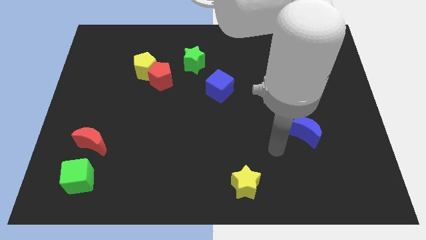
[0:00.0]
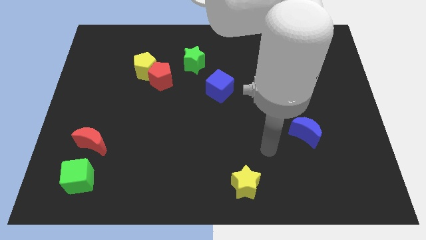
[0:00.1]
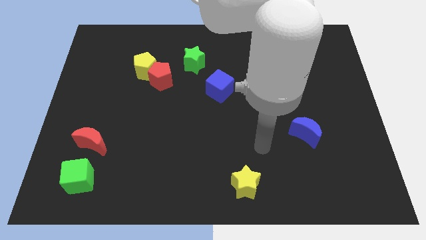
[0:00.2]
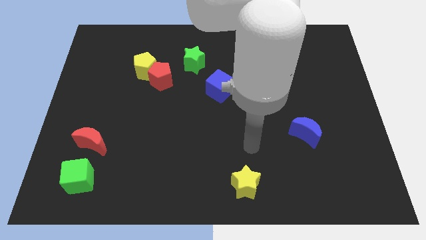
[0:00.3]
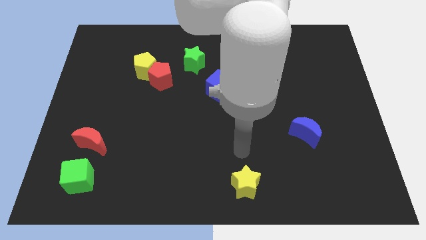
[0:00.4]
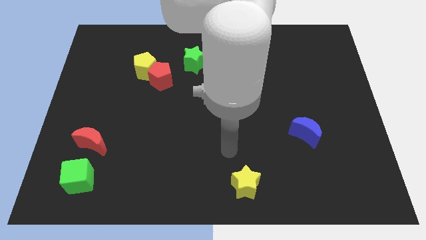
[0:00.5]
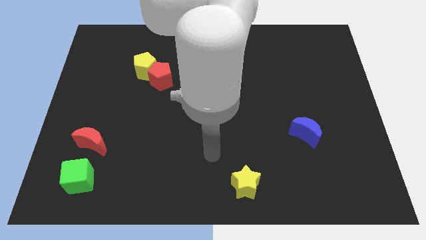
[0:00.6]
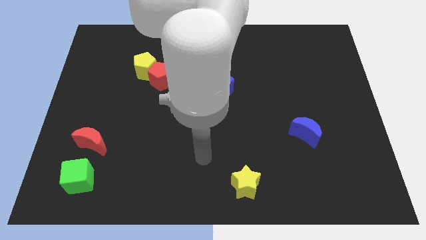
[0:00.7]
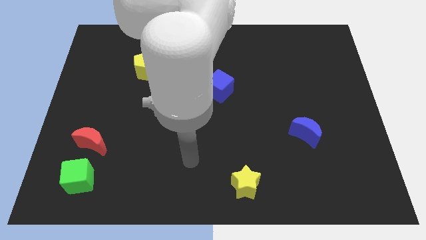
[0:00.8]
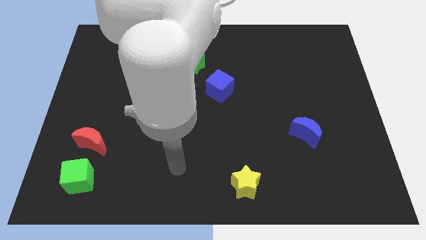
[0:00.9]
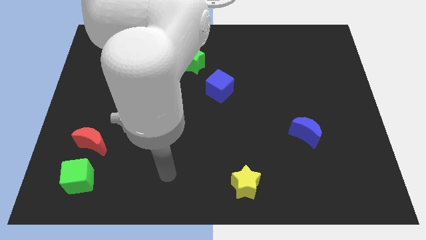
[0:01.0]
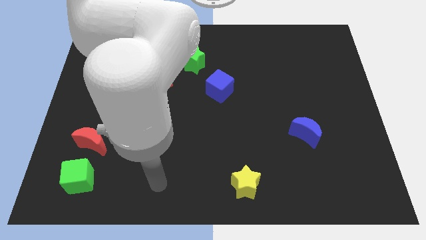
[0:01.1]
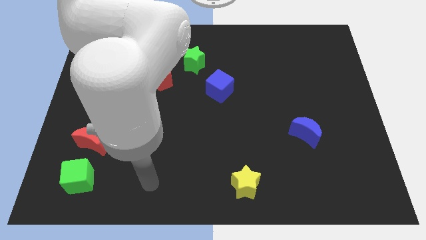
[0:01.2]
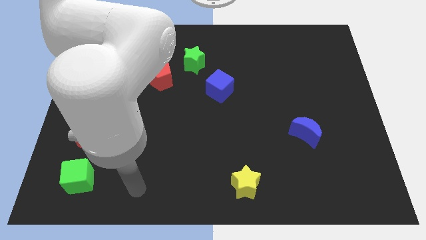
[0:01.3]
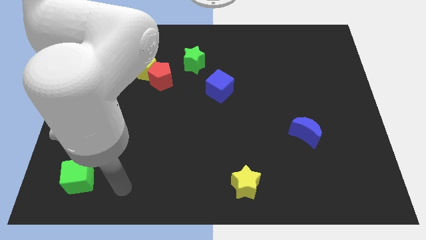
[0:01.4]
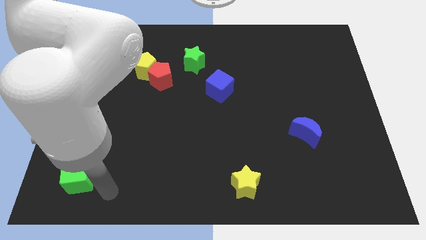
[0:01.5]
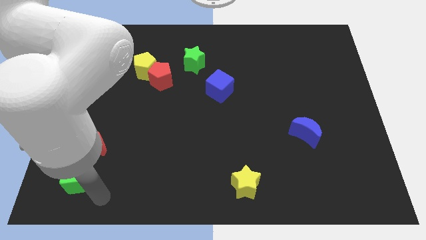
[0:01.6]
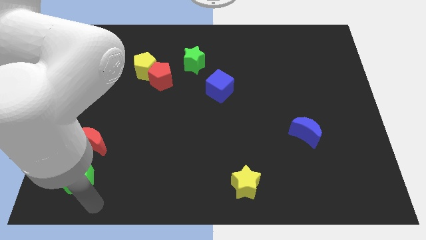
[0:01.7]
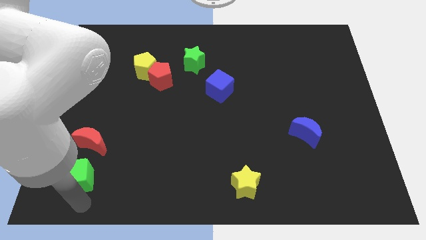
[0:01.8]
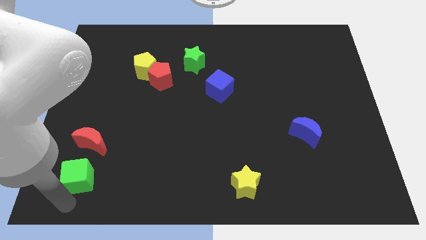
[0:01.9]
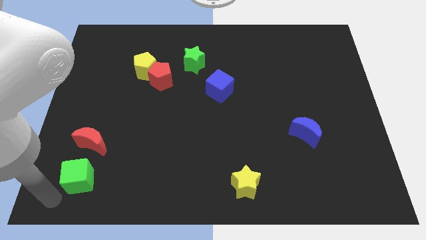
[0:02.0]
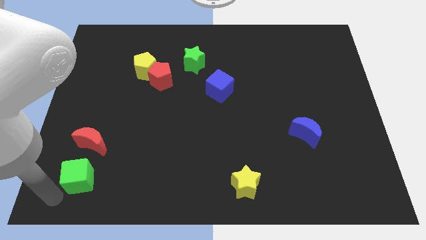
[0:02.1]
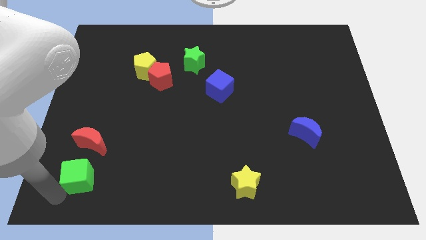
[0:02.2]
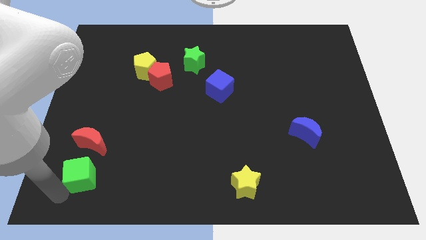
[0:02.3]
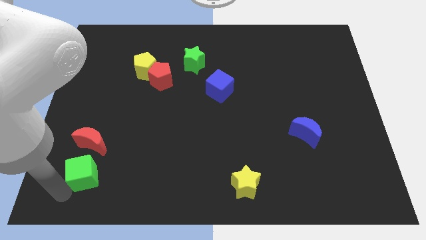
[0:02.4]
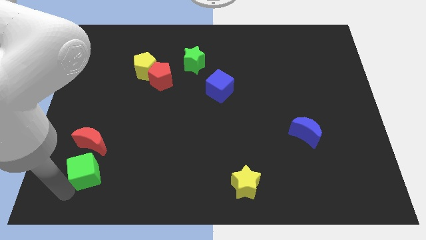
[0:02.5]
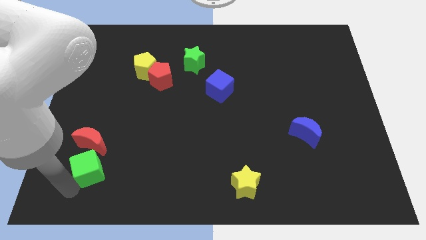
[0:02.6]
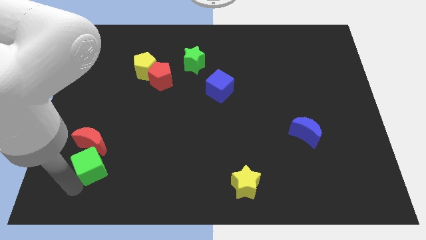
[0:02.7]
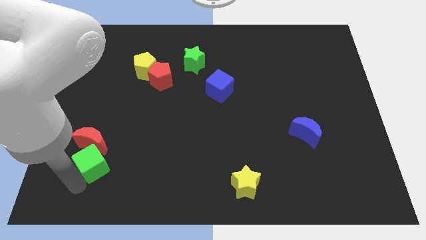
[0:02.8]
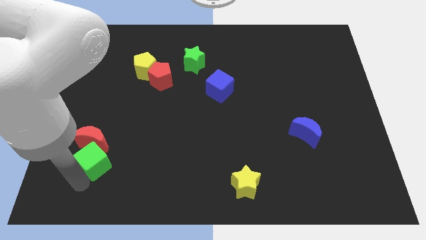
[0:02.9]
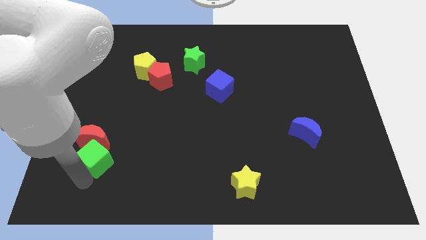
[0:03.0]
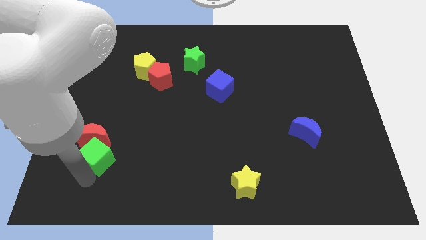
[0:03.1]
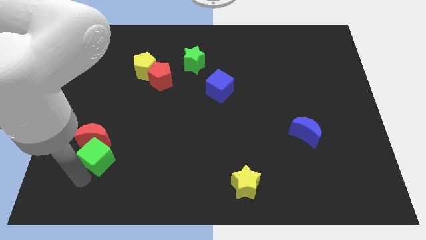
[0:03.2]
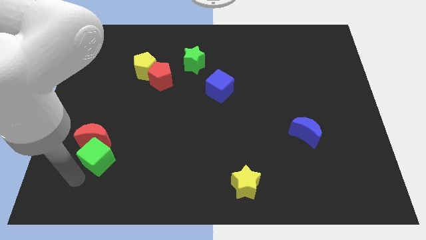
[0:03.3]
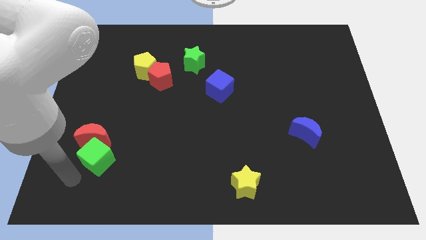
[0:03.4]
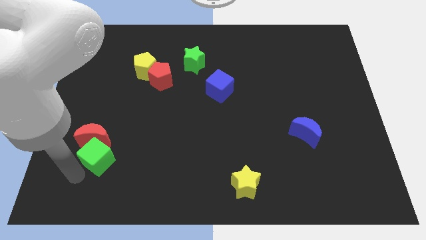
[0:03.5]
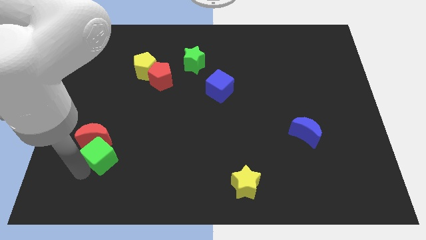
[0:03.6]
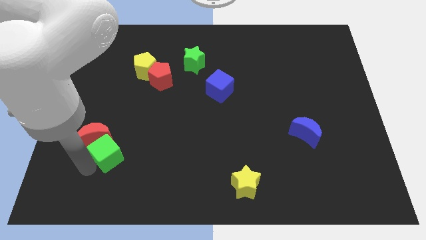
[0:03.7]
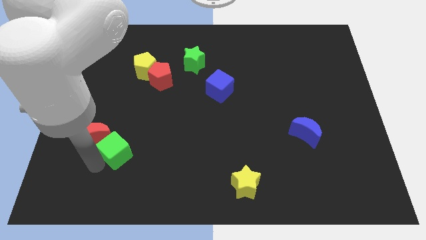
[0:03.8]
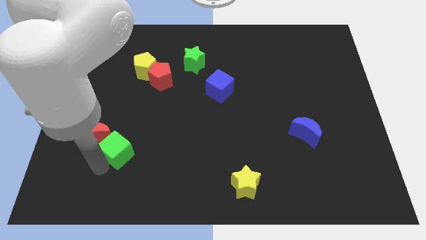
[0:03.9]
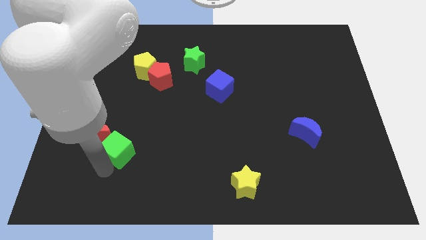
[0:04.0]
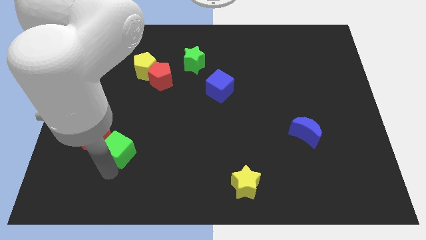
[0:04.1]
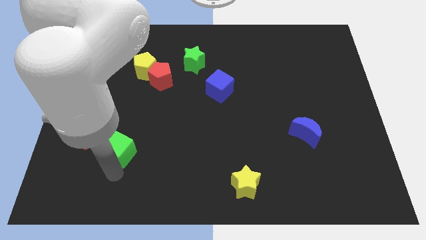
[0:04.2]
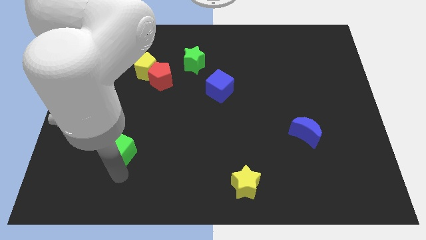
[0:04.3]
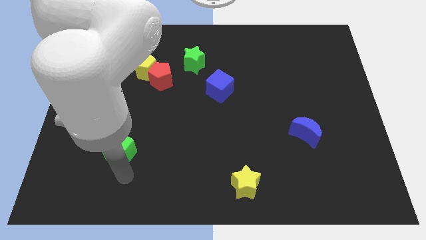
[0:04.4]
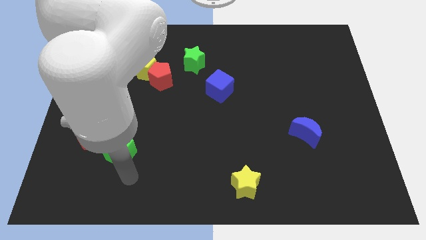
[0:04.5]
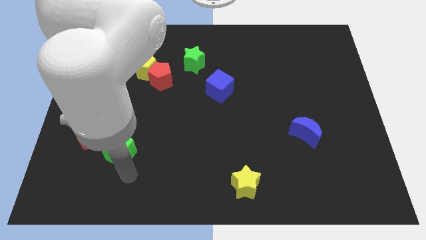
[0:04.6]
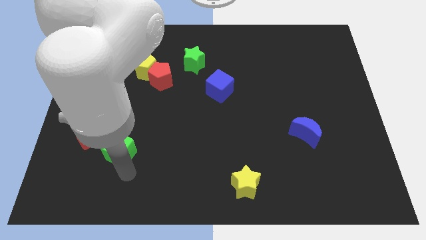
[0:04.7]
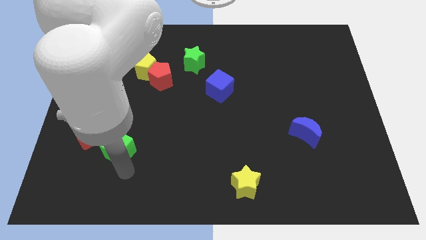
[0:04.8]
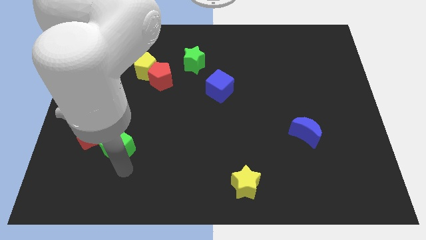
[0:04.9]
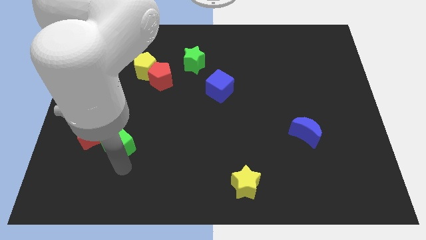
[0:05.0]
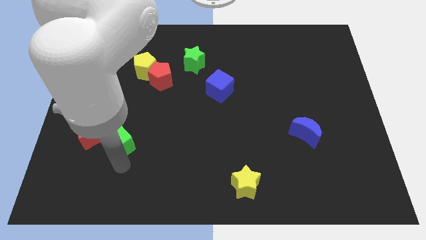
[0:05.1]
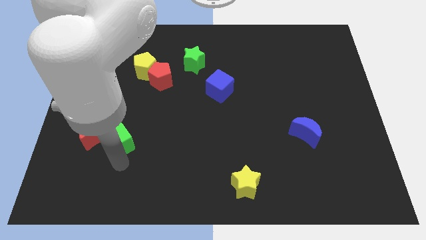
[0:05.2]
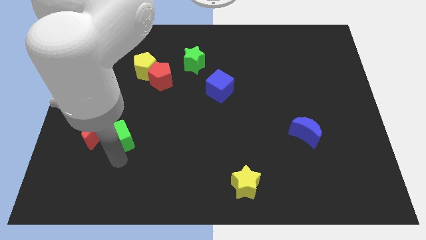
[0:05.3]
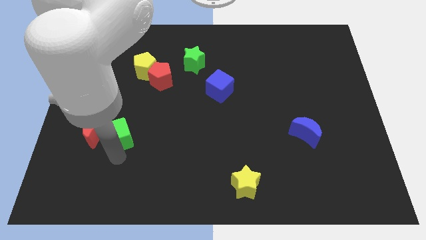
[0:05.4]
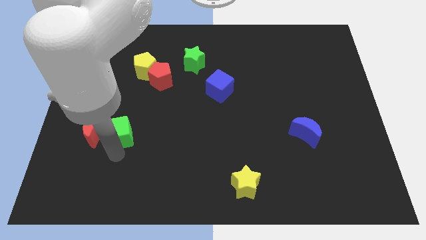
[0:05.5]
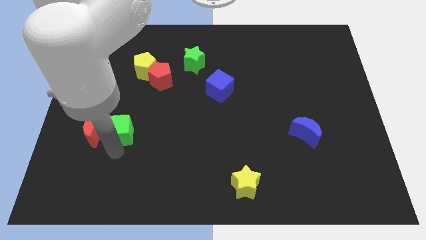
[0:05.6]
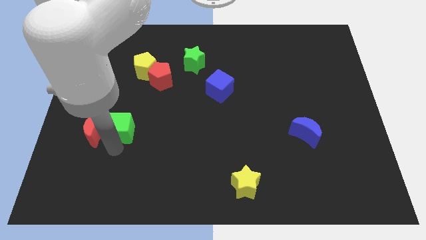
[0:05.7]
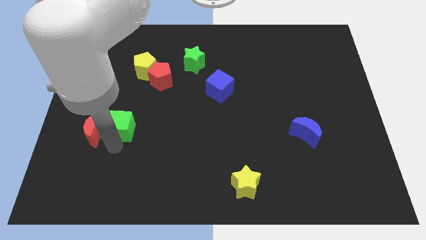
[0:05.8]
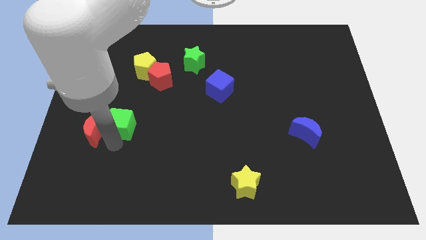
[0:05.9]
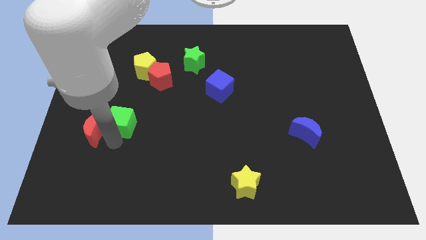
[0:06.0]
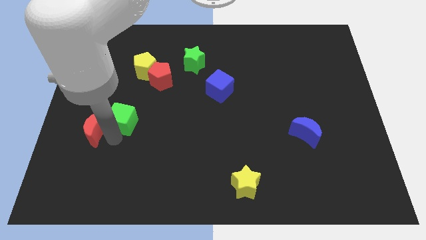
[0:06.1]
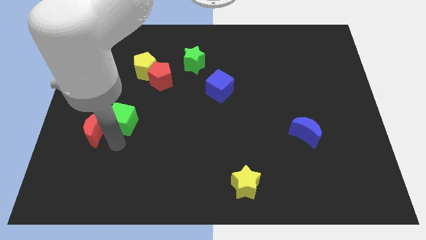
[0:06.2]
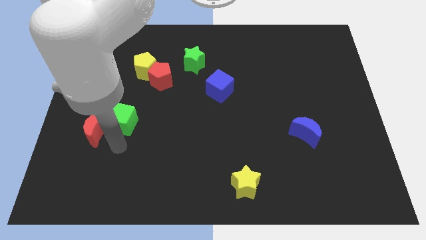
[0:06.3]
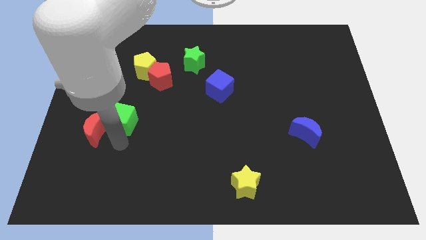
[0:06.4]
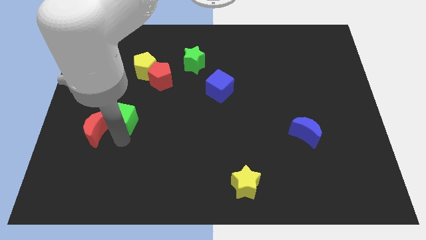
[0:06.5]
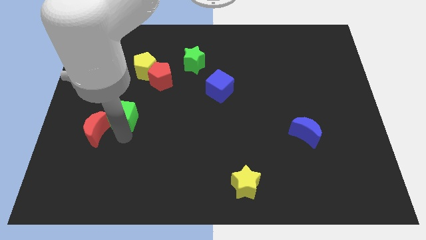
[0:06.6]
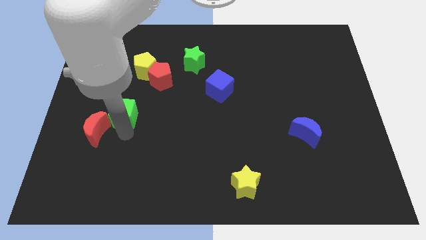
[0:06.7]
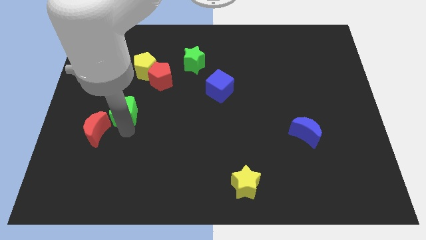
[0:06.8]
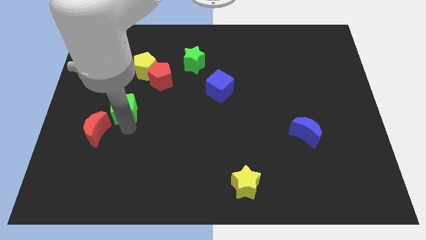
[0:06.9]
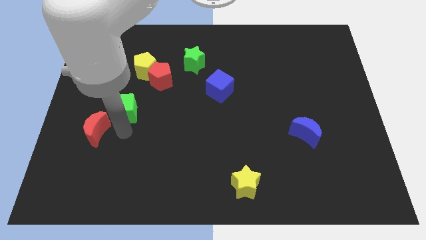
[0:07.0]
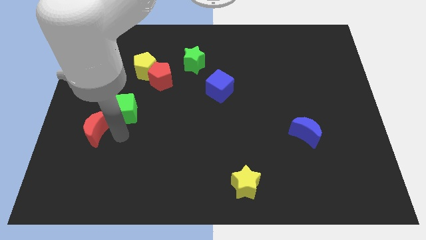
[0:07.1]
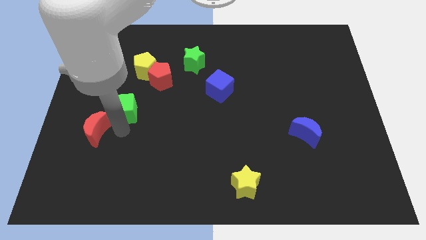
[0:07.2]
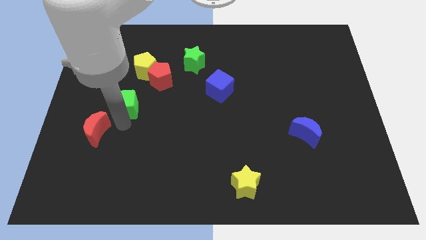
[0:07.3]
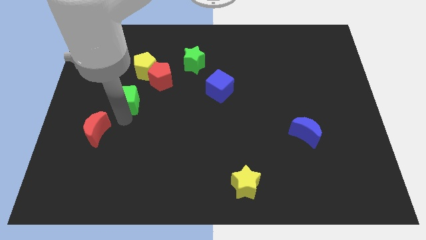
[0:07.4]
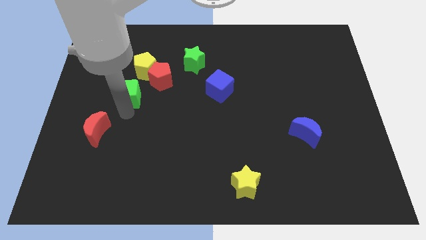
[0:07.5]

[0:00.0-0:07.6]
move the green cube diagonally down and to the left of the yellow pentagon
